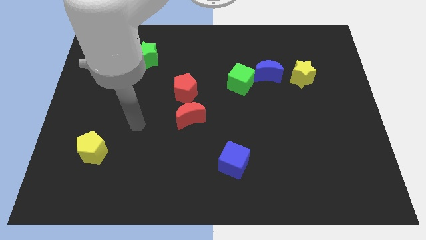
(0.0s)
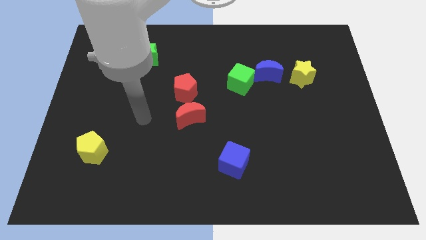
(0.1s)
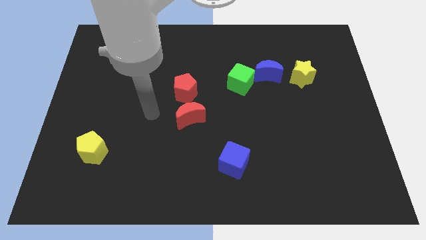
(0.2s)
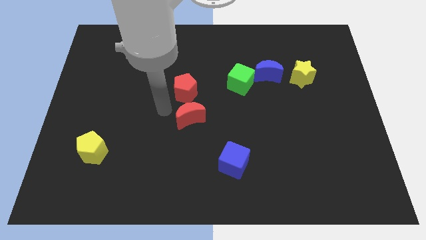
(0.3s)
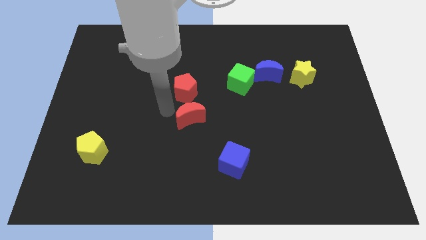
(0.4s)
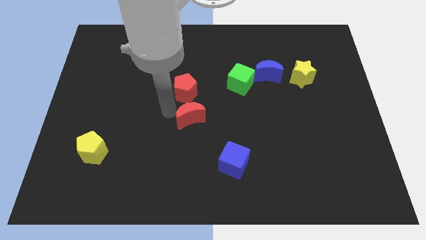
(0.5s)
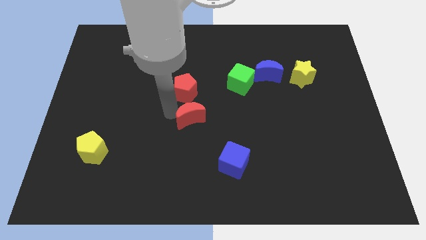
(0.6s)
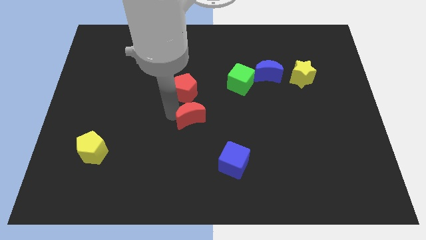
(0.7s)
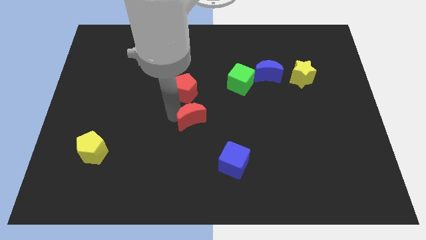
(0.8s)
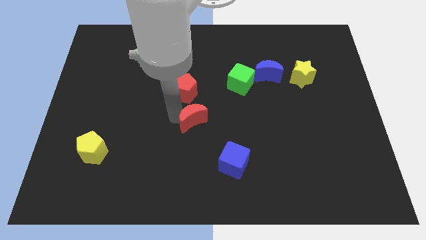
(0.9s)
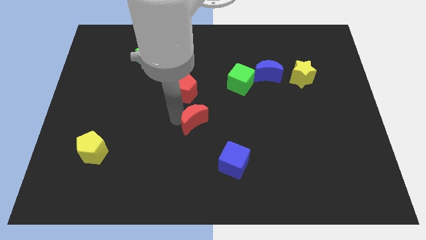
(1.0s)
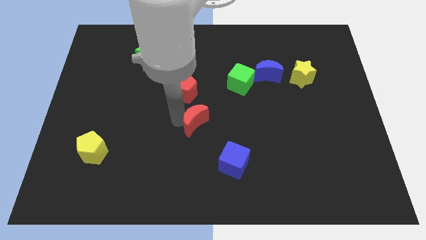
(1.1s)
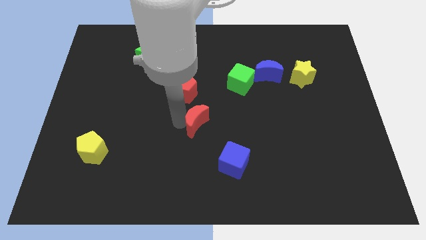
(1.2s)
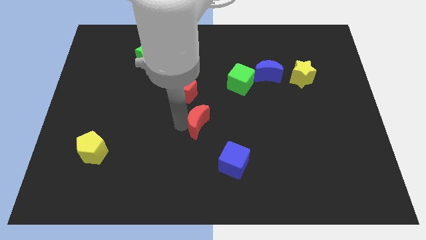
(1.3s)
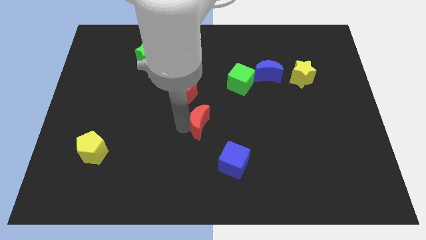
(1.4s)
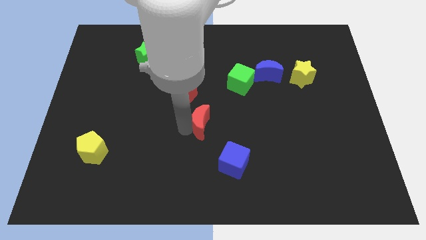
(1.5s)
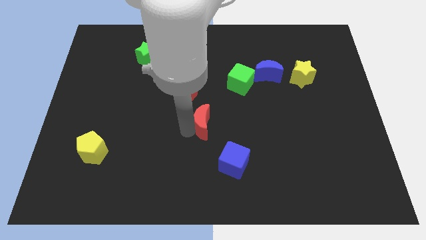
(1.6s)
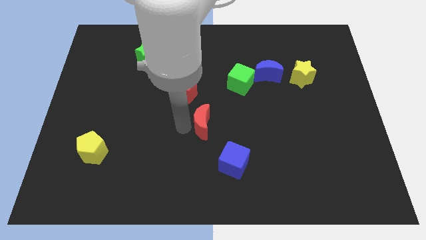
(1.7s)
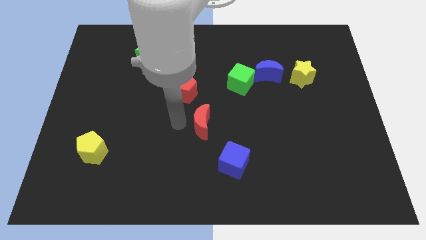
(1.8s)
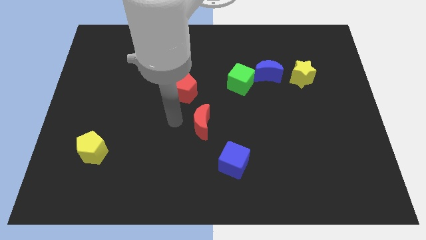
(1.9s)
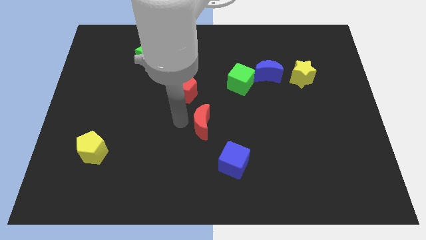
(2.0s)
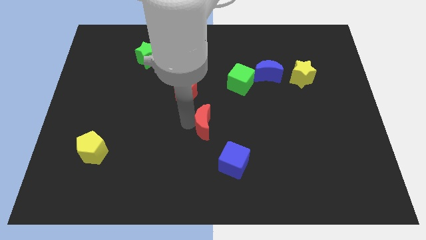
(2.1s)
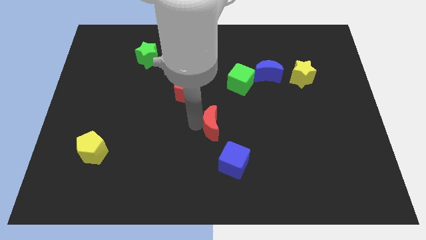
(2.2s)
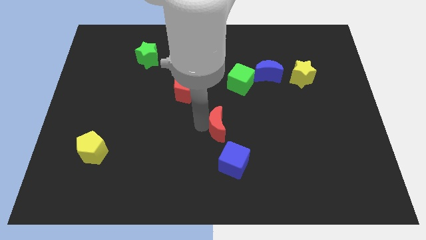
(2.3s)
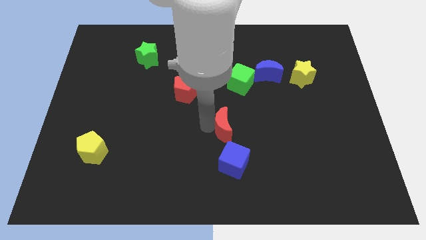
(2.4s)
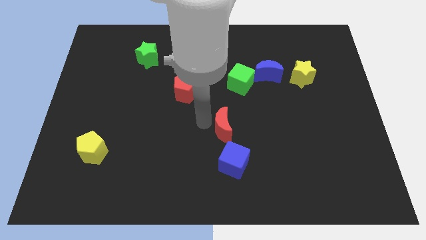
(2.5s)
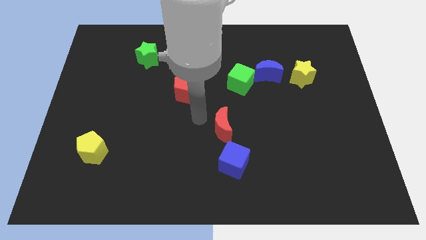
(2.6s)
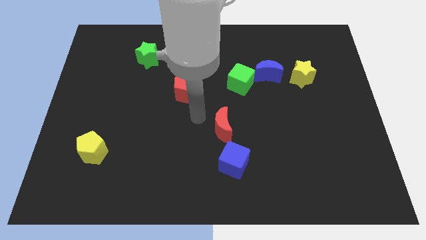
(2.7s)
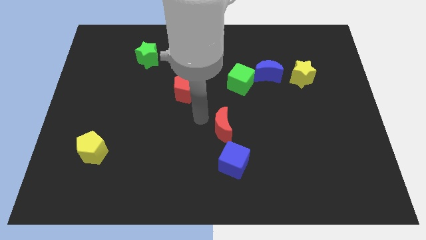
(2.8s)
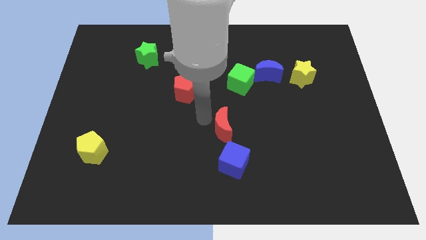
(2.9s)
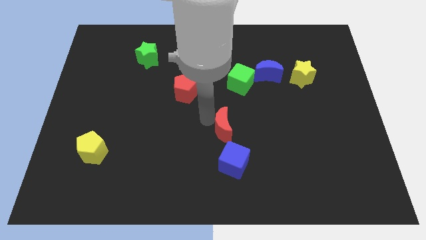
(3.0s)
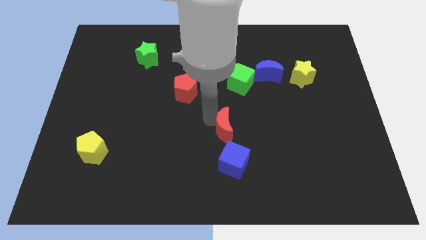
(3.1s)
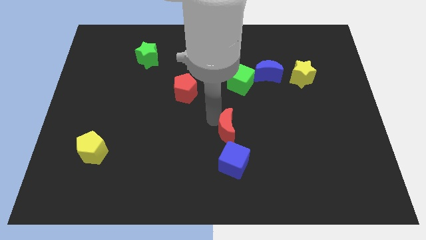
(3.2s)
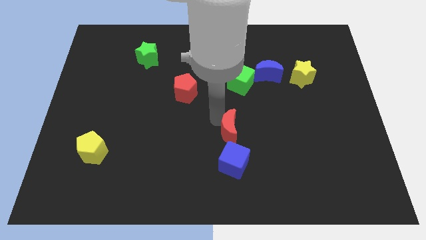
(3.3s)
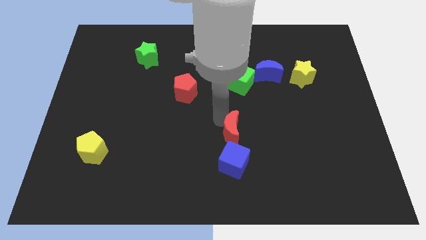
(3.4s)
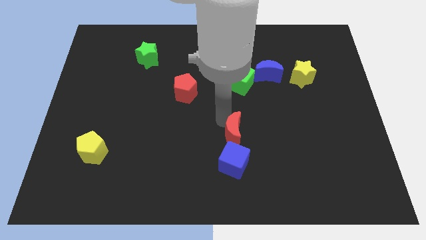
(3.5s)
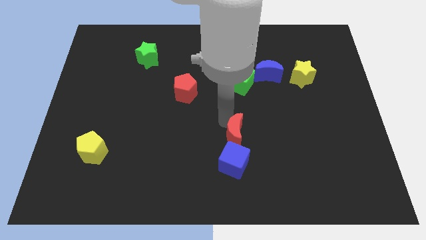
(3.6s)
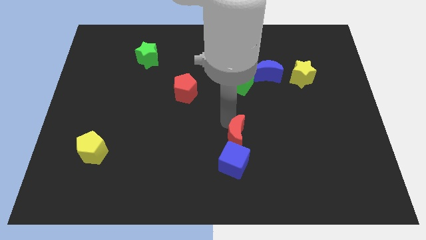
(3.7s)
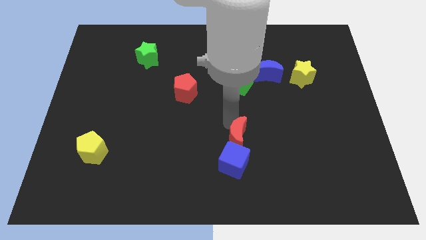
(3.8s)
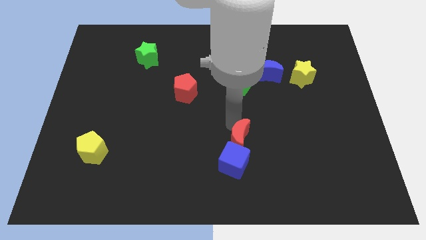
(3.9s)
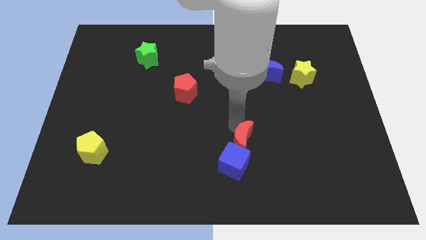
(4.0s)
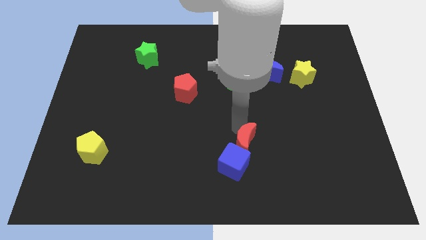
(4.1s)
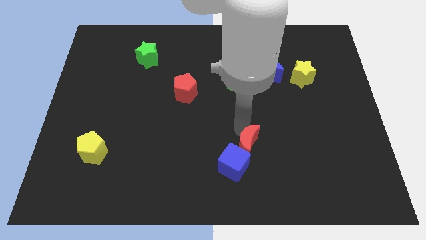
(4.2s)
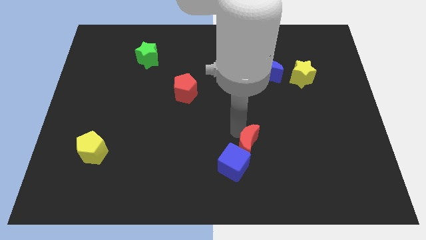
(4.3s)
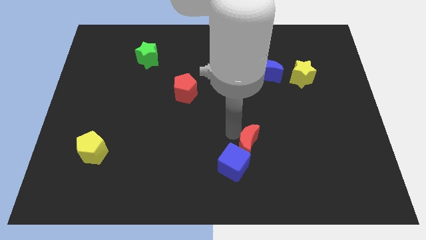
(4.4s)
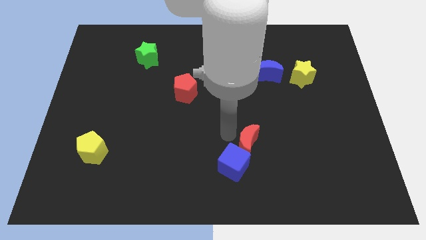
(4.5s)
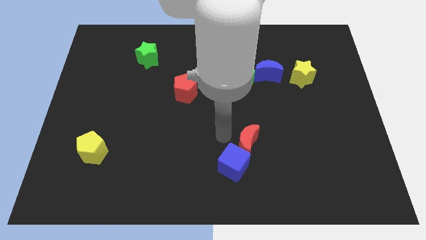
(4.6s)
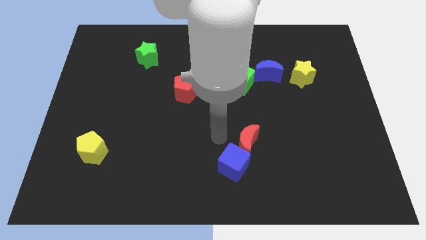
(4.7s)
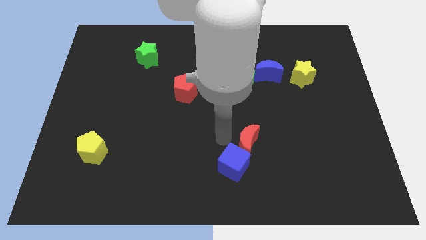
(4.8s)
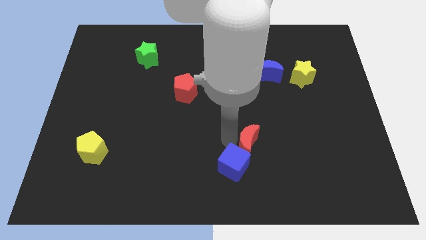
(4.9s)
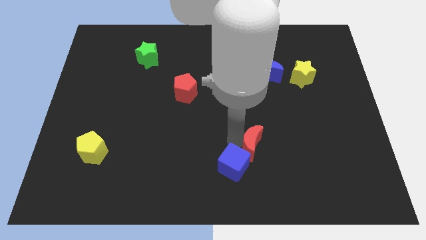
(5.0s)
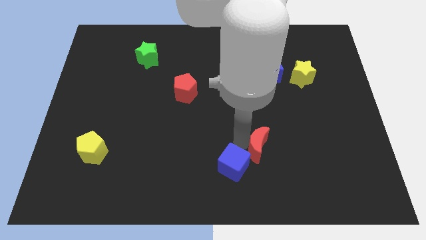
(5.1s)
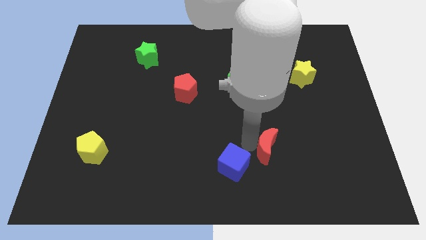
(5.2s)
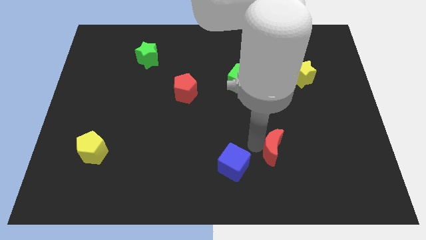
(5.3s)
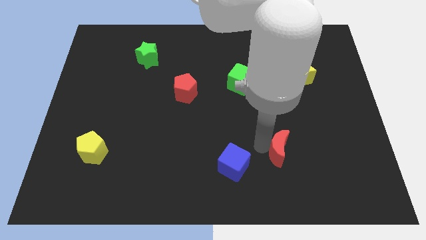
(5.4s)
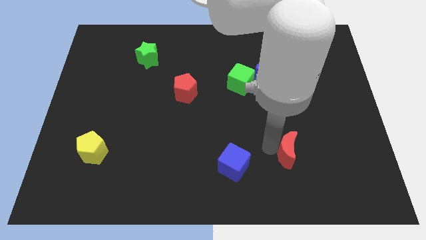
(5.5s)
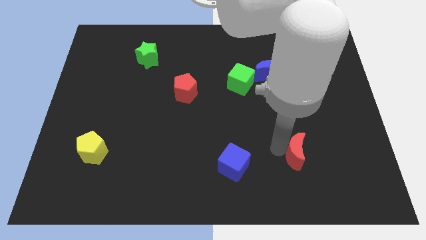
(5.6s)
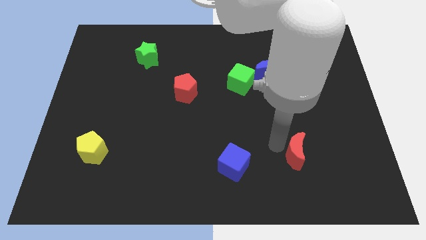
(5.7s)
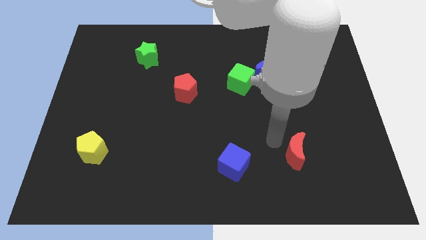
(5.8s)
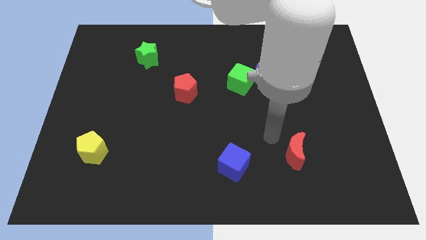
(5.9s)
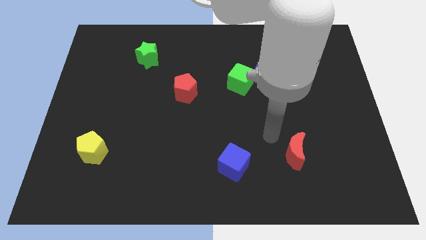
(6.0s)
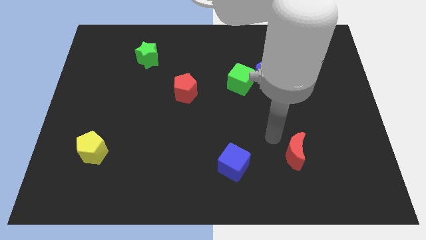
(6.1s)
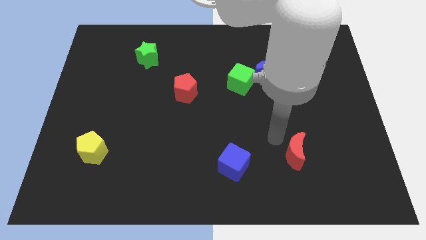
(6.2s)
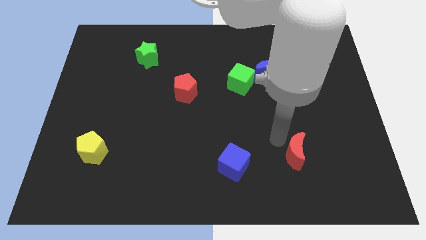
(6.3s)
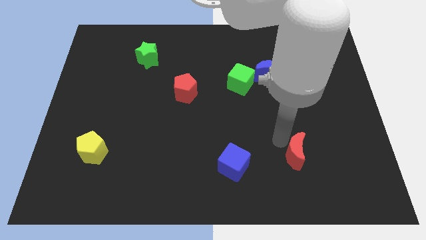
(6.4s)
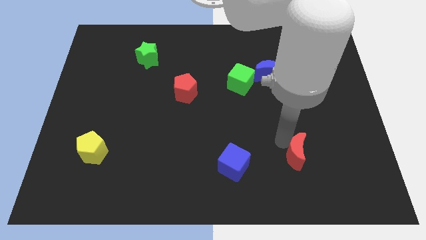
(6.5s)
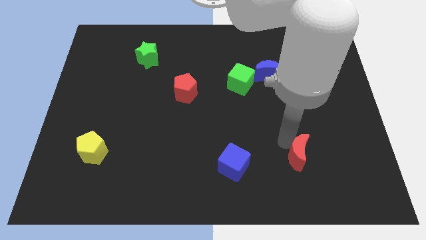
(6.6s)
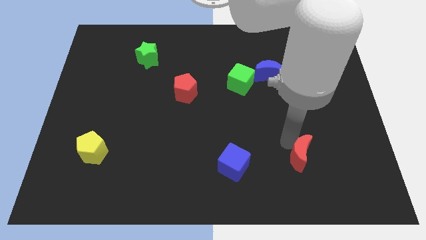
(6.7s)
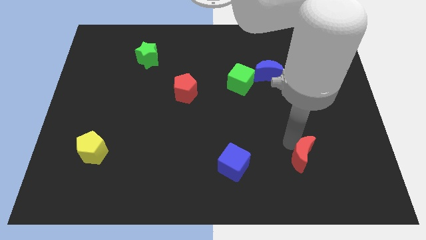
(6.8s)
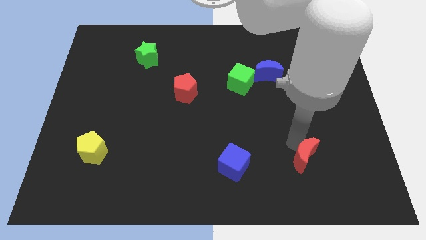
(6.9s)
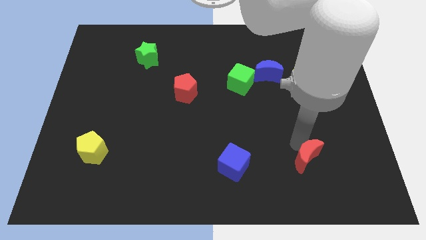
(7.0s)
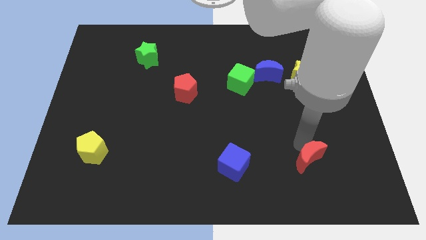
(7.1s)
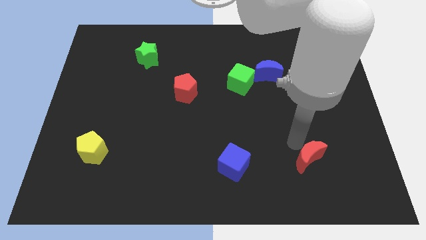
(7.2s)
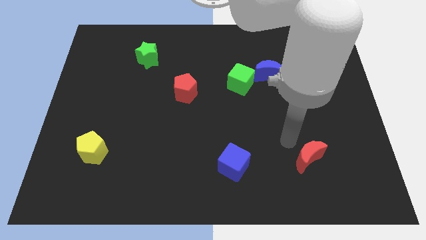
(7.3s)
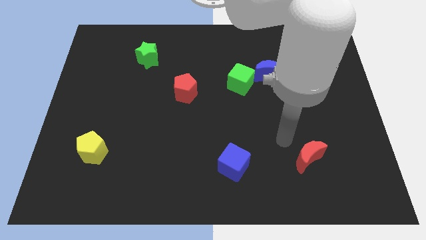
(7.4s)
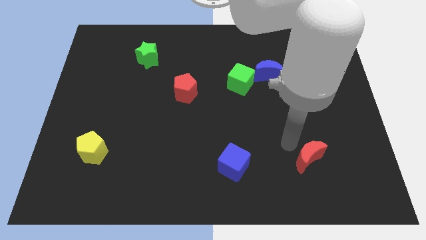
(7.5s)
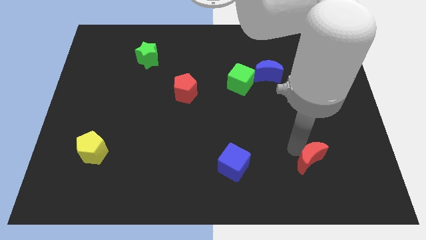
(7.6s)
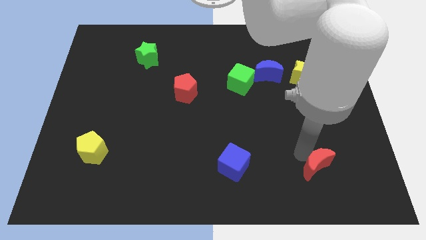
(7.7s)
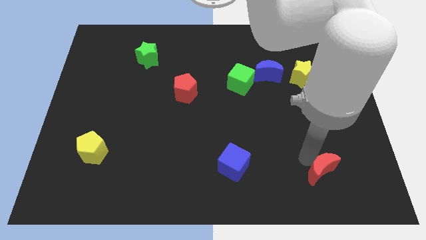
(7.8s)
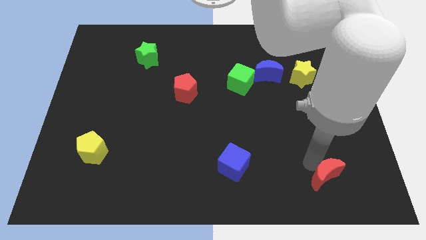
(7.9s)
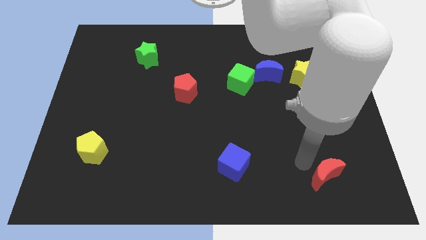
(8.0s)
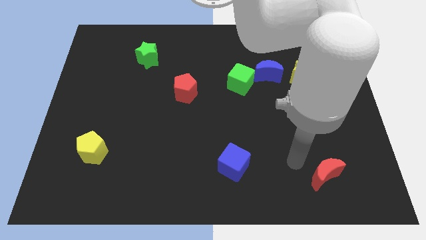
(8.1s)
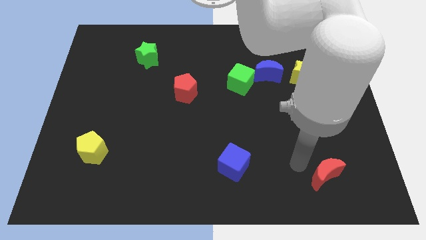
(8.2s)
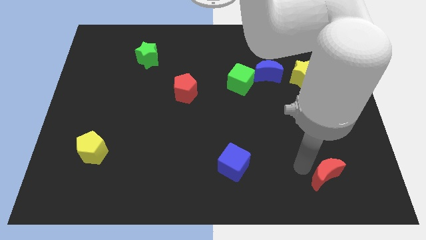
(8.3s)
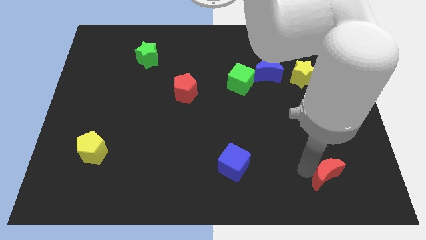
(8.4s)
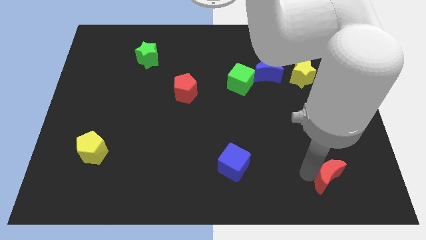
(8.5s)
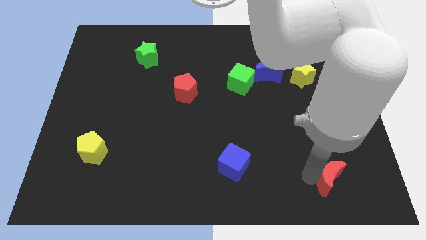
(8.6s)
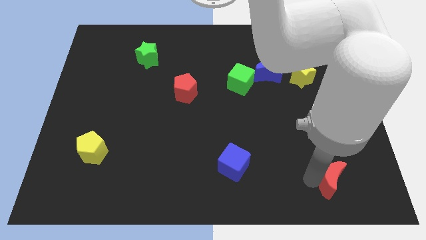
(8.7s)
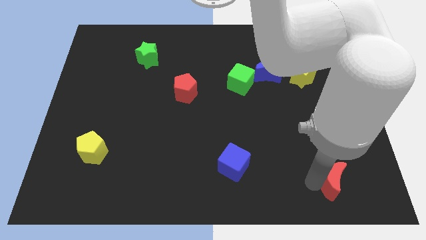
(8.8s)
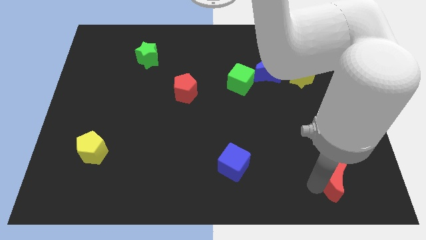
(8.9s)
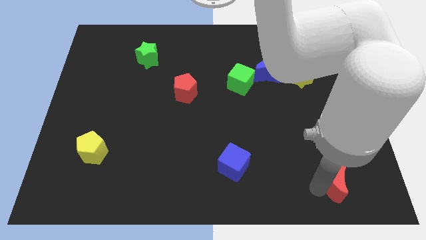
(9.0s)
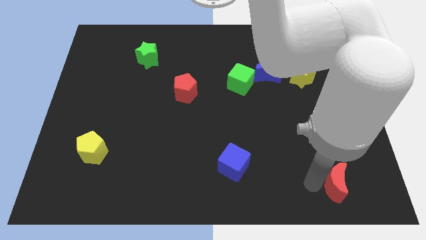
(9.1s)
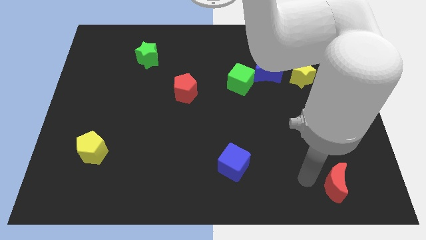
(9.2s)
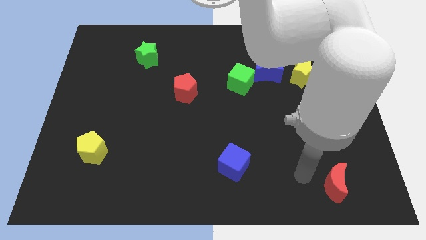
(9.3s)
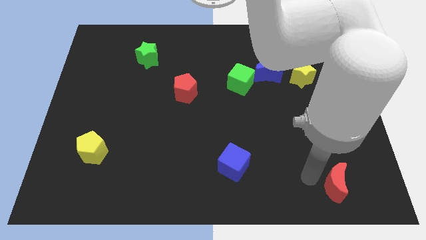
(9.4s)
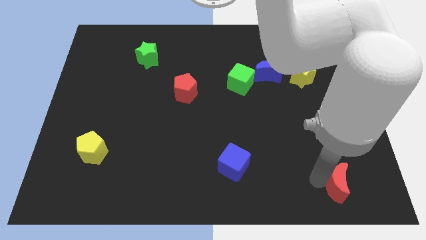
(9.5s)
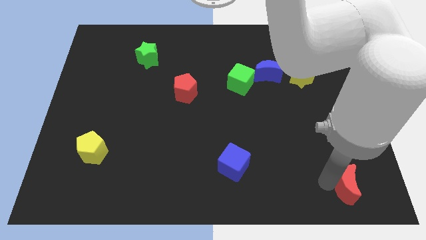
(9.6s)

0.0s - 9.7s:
move the red moon to the bottom right of the board
